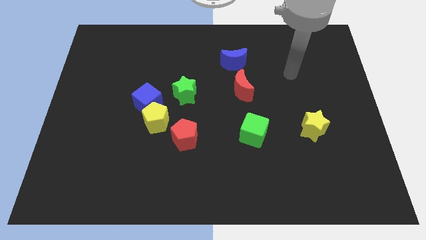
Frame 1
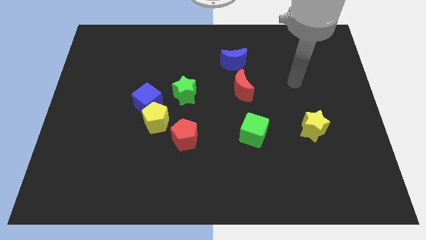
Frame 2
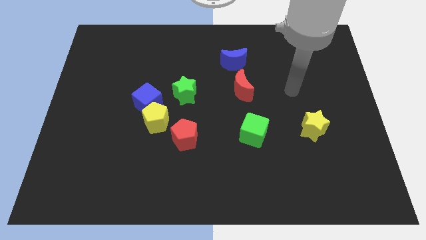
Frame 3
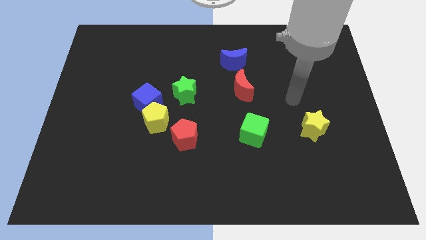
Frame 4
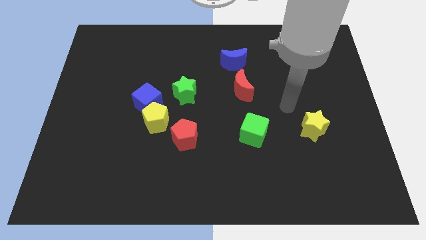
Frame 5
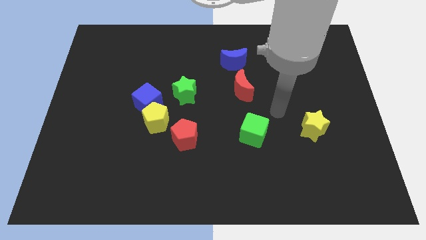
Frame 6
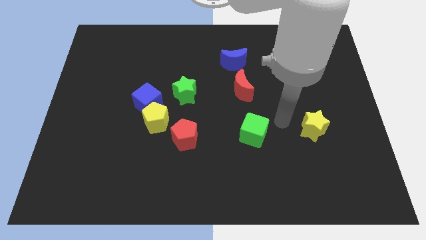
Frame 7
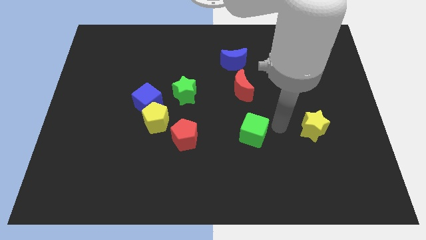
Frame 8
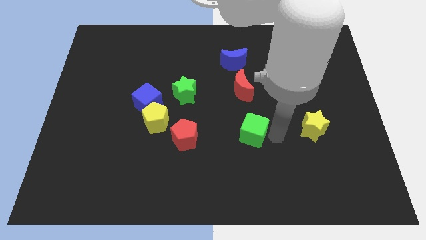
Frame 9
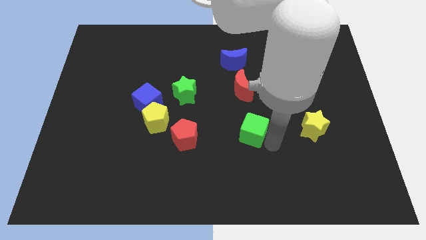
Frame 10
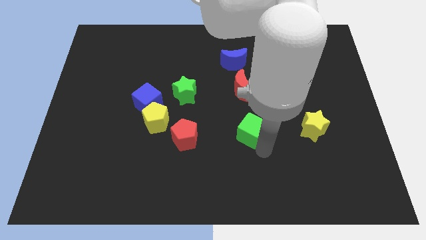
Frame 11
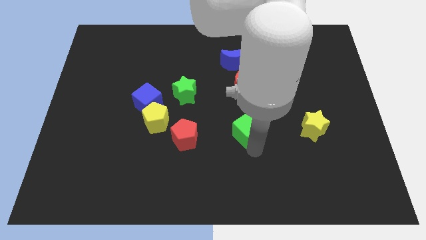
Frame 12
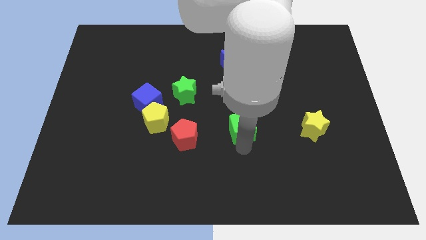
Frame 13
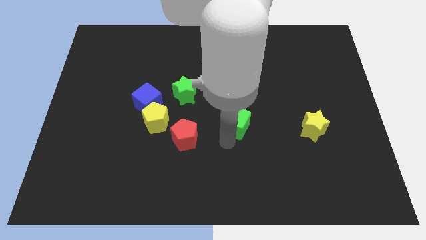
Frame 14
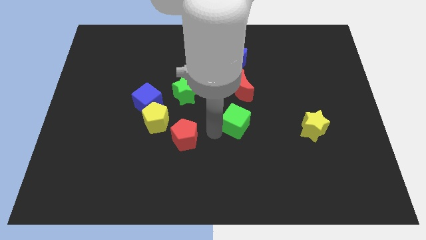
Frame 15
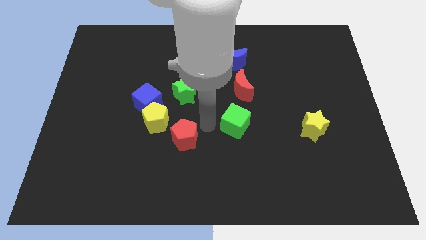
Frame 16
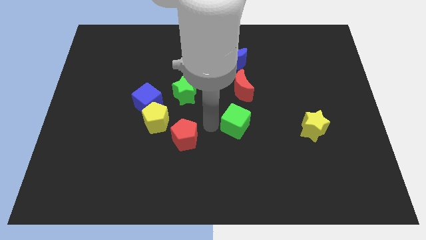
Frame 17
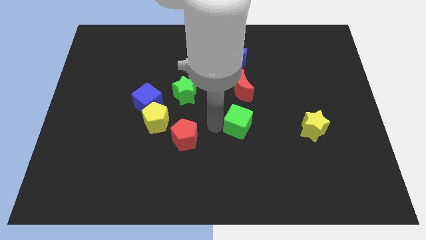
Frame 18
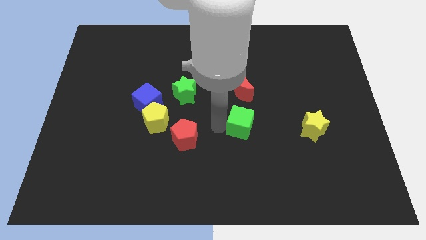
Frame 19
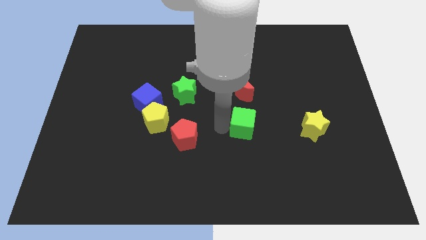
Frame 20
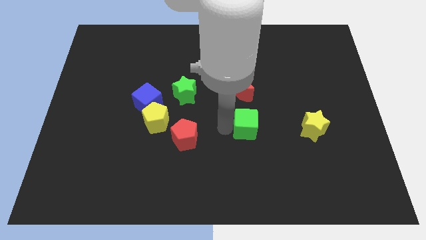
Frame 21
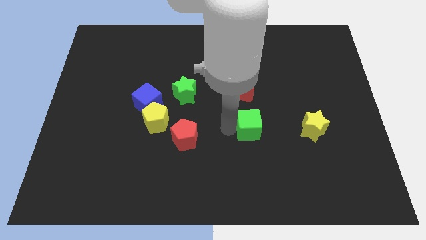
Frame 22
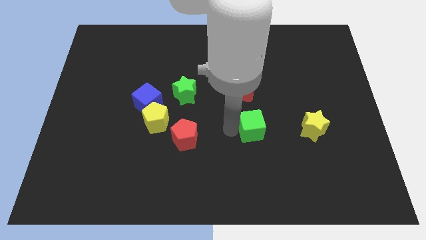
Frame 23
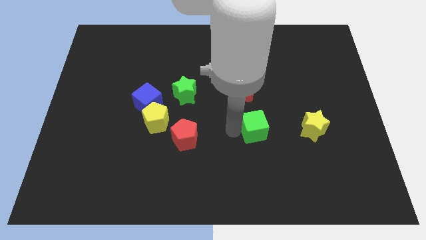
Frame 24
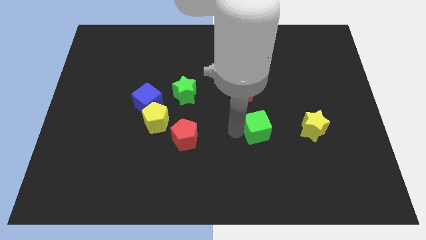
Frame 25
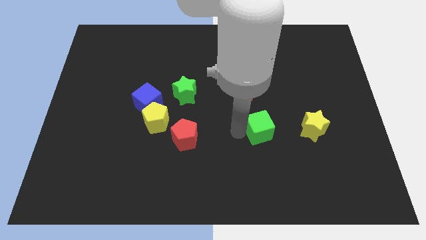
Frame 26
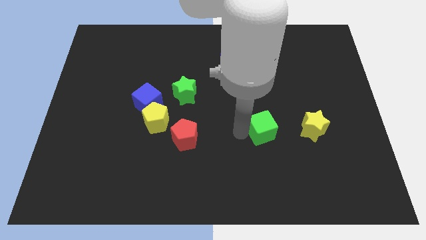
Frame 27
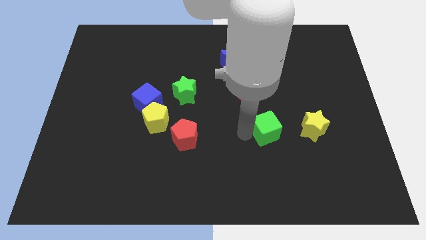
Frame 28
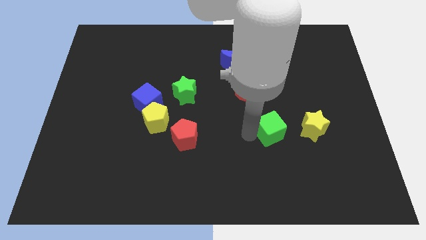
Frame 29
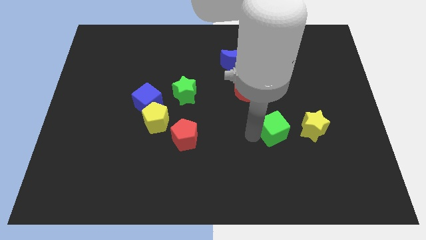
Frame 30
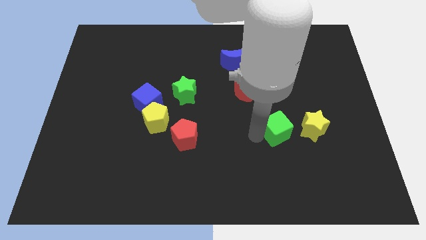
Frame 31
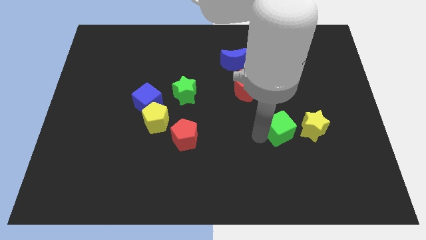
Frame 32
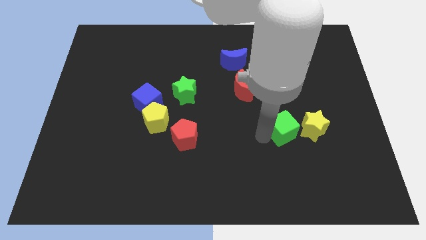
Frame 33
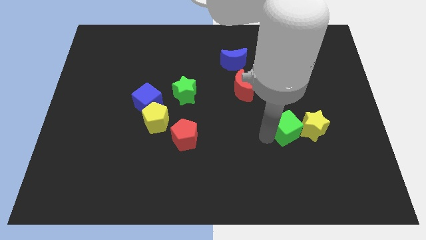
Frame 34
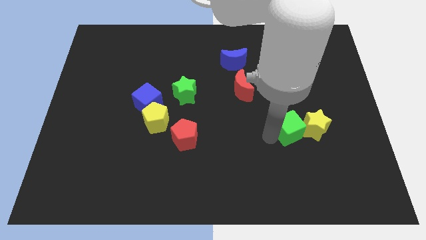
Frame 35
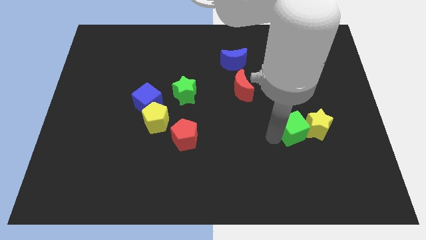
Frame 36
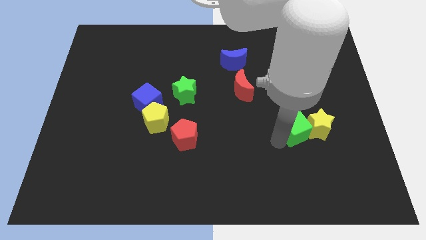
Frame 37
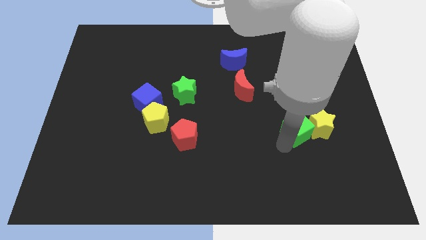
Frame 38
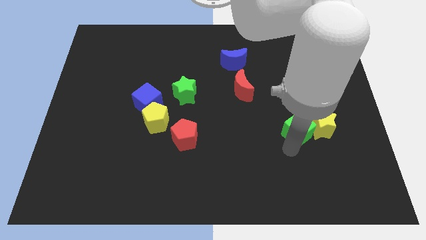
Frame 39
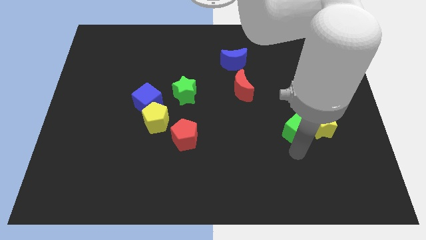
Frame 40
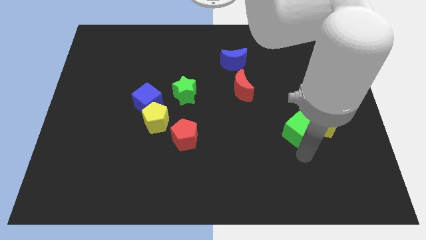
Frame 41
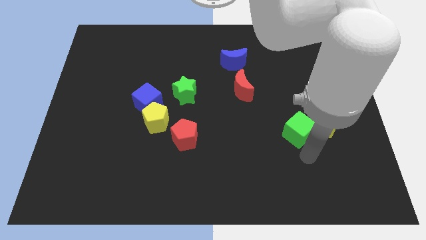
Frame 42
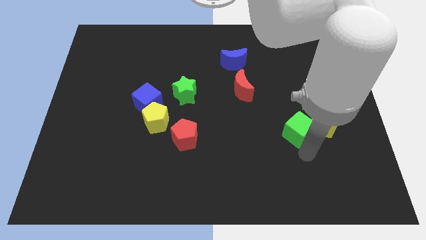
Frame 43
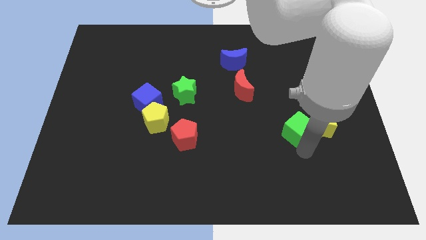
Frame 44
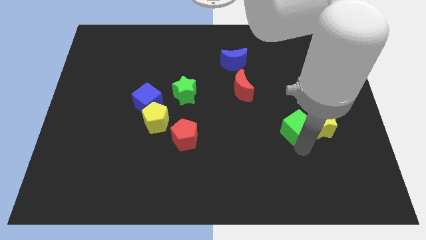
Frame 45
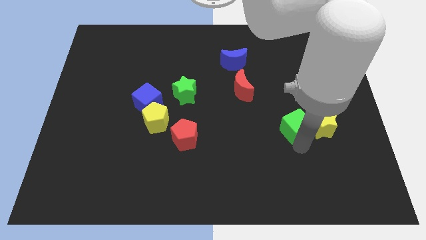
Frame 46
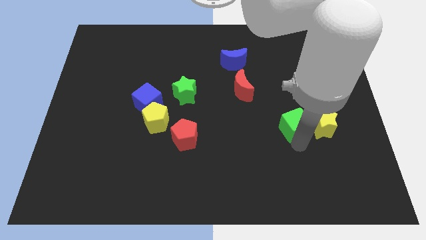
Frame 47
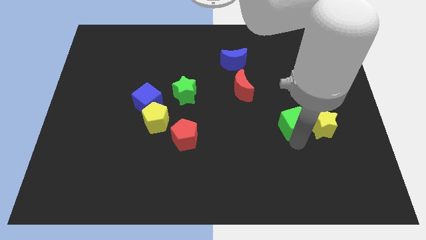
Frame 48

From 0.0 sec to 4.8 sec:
slightly move the green cube diagonally up and to the right

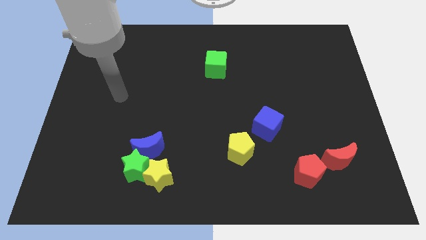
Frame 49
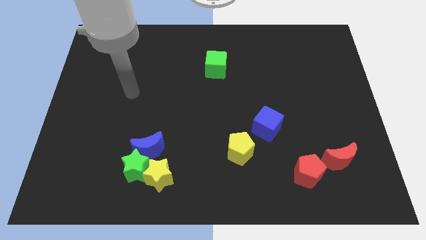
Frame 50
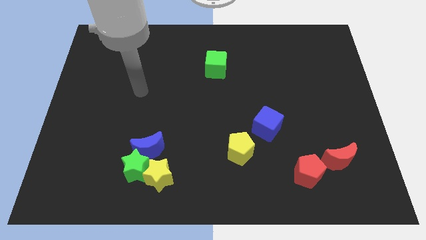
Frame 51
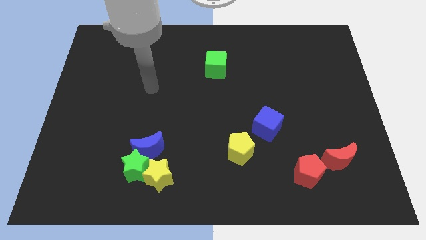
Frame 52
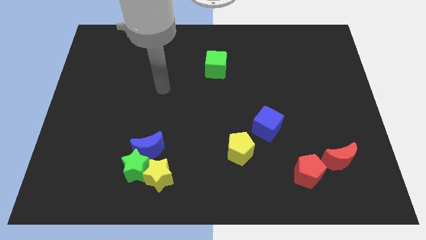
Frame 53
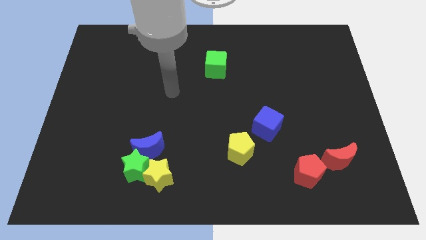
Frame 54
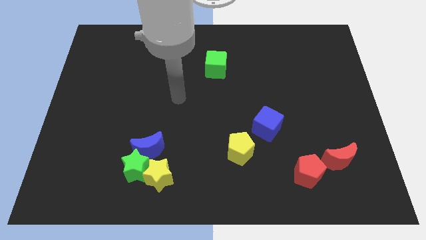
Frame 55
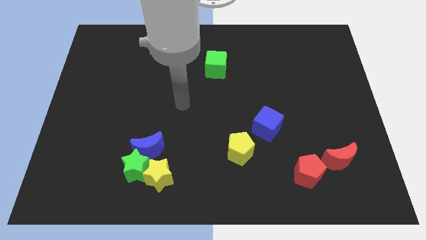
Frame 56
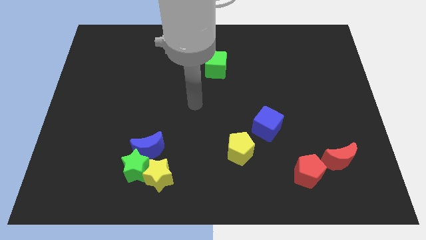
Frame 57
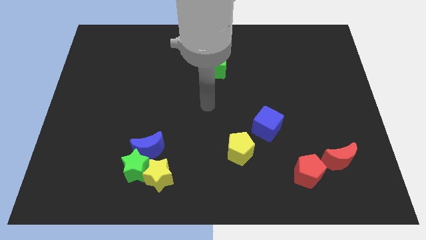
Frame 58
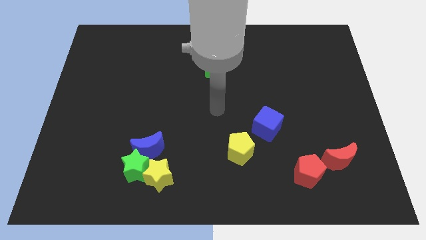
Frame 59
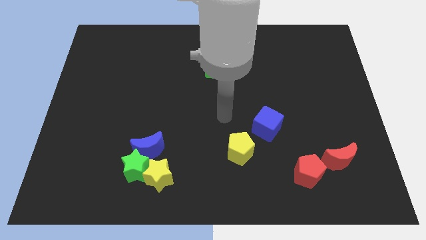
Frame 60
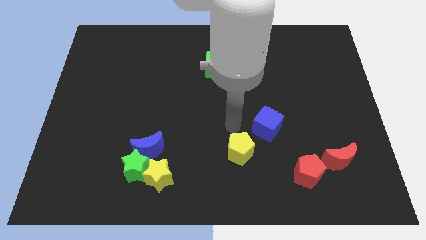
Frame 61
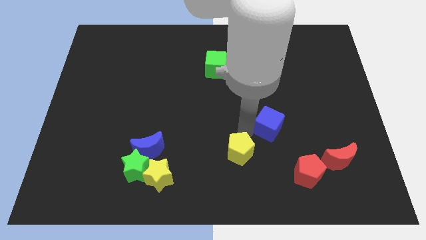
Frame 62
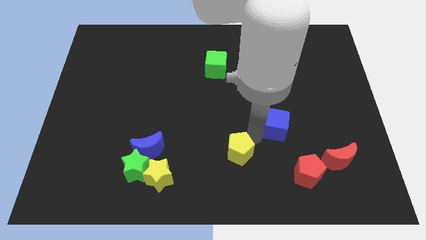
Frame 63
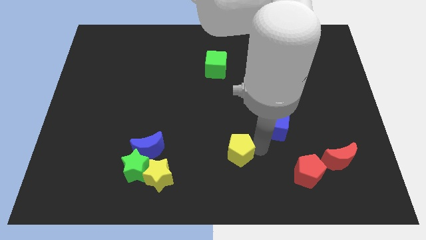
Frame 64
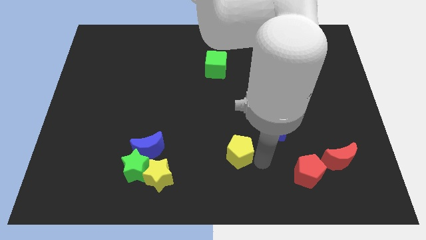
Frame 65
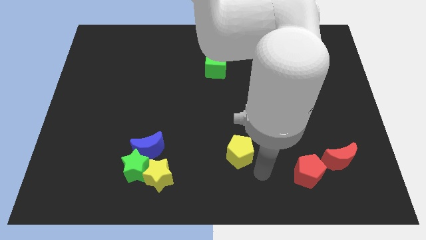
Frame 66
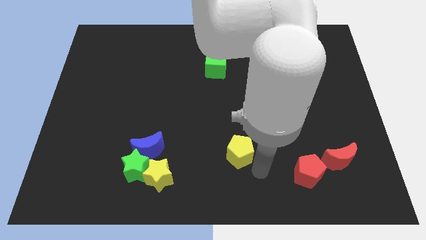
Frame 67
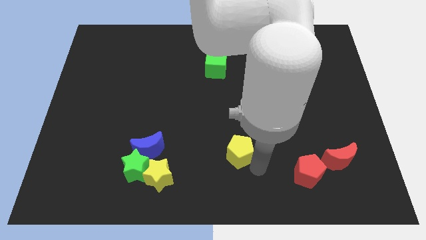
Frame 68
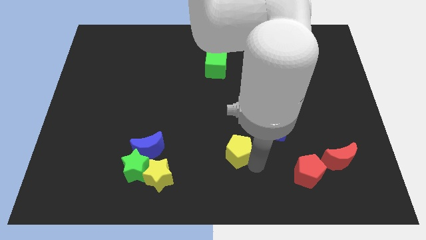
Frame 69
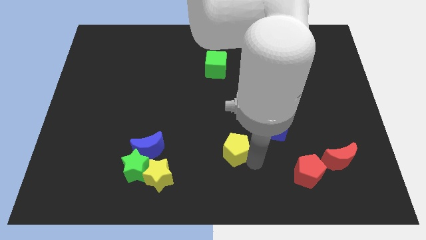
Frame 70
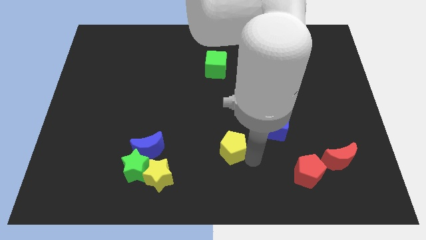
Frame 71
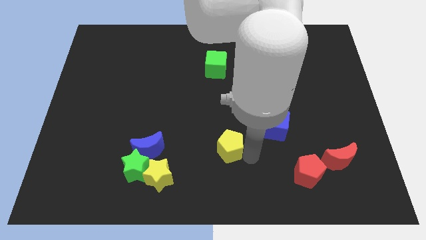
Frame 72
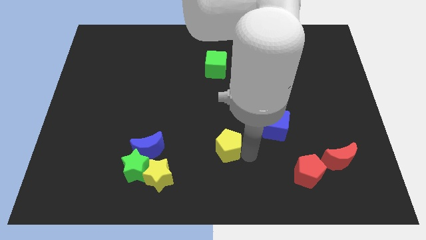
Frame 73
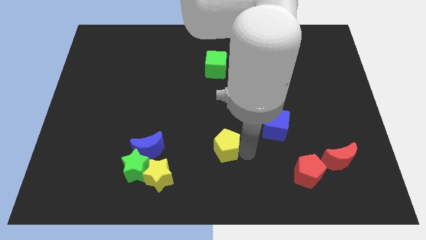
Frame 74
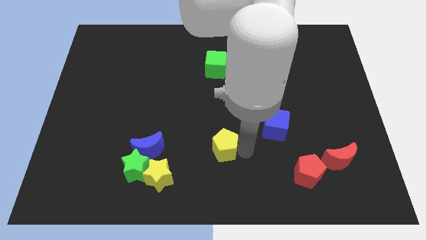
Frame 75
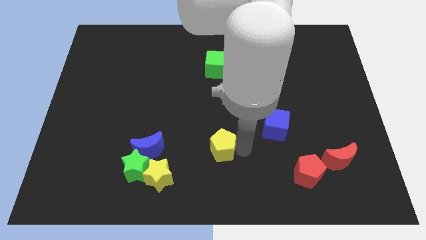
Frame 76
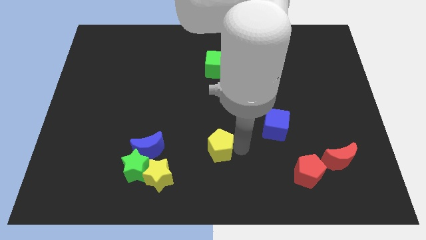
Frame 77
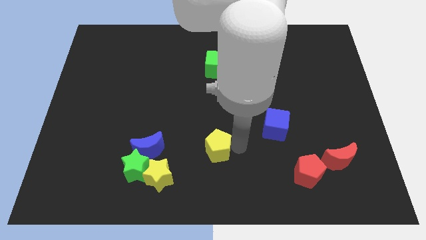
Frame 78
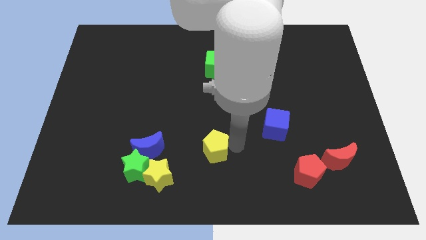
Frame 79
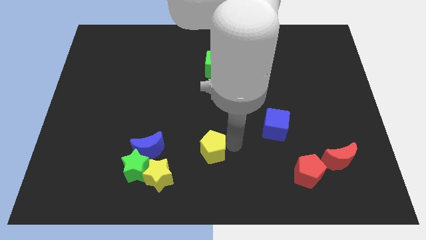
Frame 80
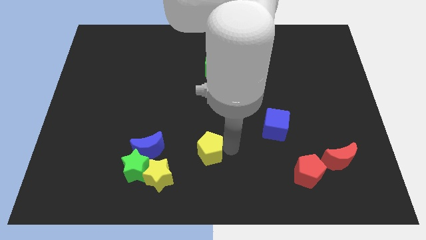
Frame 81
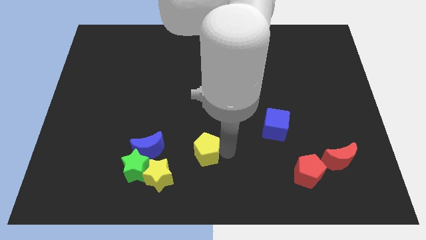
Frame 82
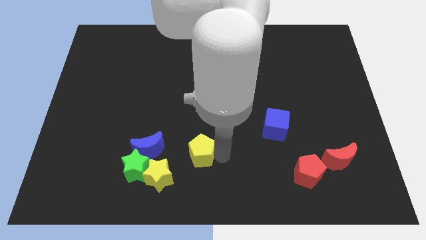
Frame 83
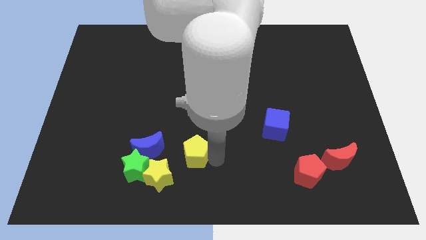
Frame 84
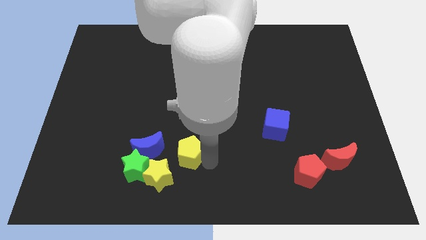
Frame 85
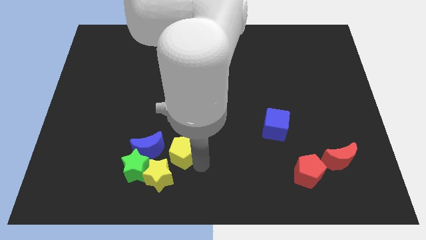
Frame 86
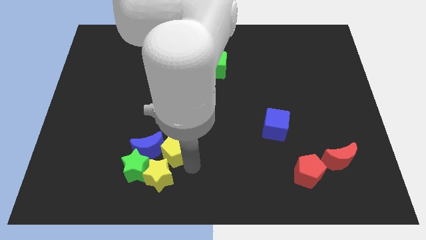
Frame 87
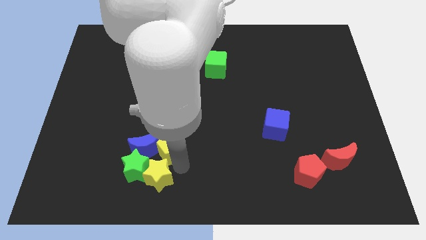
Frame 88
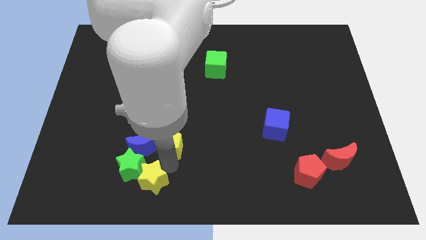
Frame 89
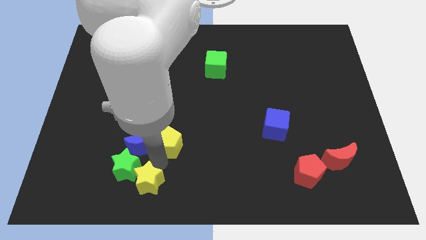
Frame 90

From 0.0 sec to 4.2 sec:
slightly slide the yellow pentagon upwards and then left
